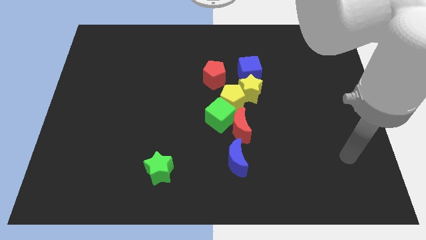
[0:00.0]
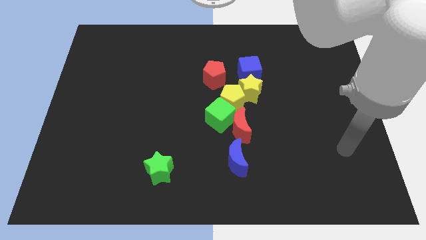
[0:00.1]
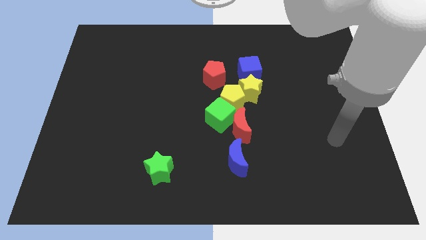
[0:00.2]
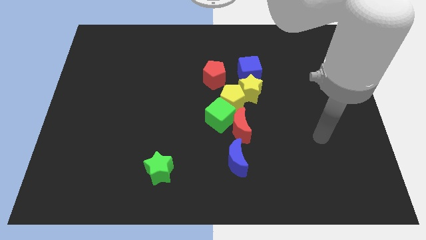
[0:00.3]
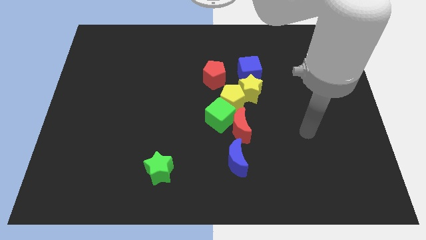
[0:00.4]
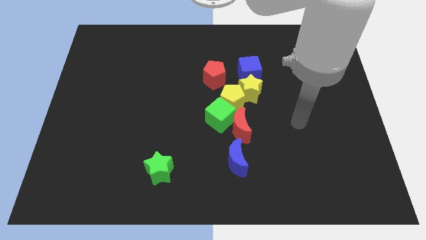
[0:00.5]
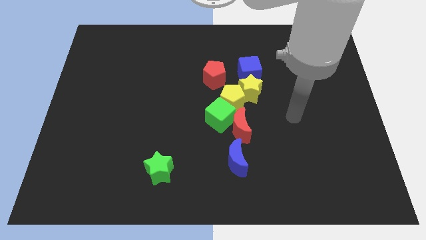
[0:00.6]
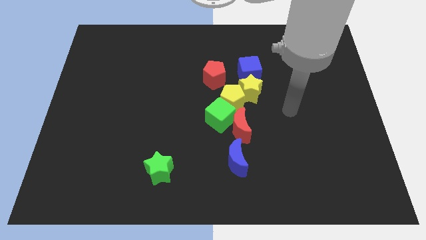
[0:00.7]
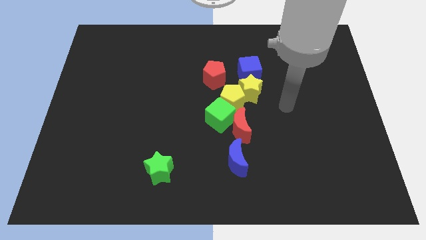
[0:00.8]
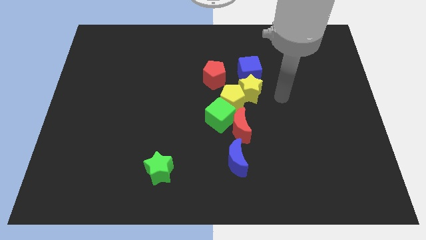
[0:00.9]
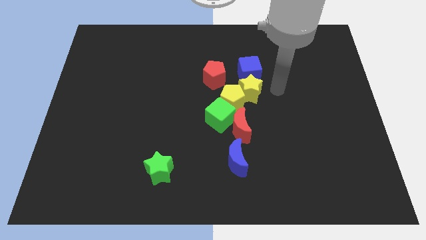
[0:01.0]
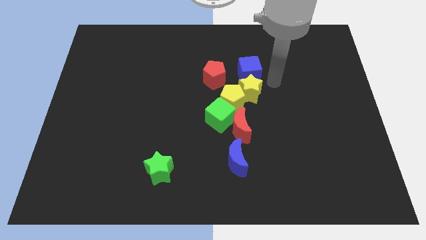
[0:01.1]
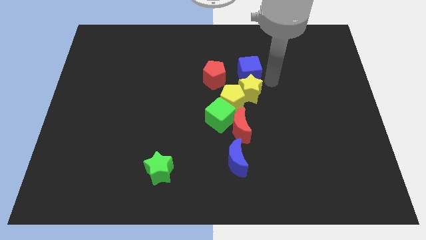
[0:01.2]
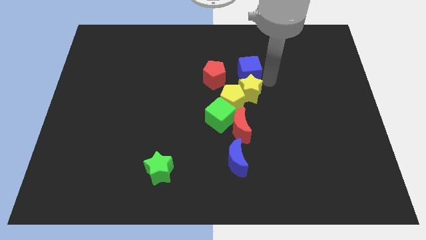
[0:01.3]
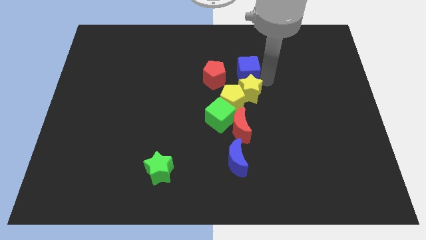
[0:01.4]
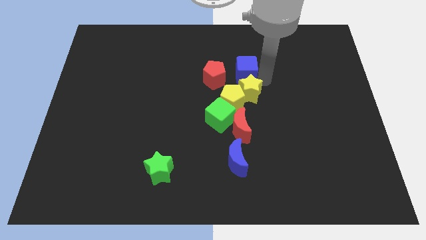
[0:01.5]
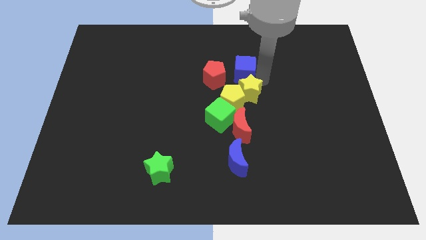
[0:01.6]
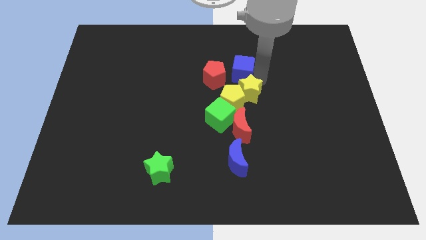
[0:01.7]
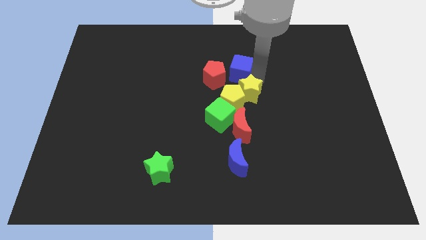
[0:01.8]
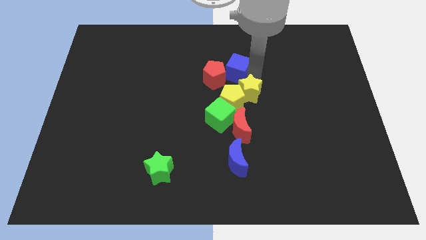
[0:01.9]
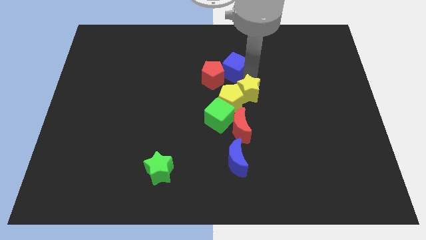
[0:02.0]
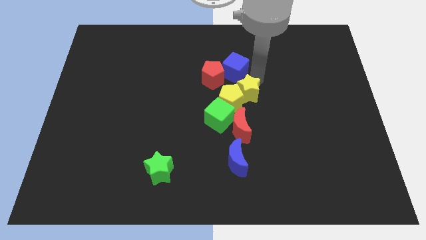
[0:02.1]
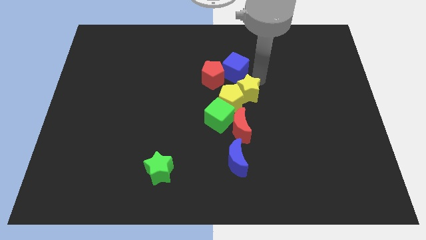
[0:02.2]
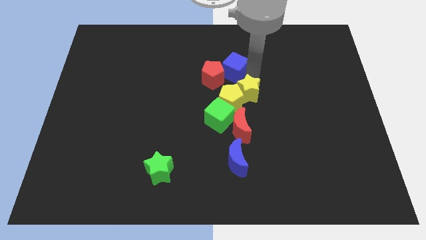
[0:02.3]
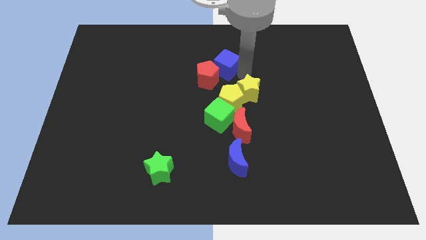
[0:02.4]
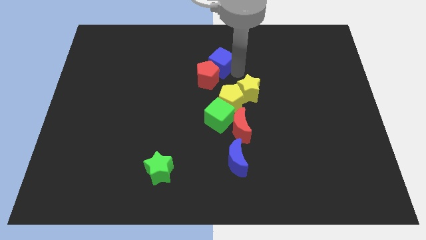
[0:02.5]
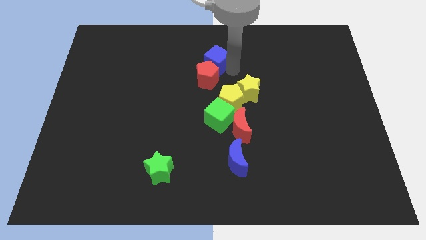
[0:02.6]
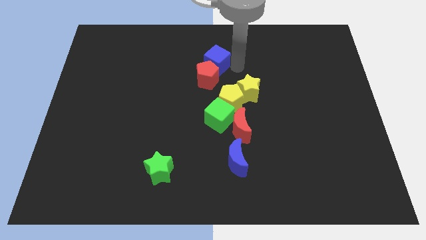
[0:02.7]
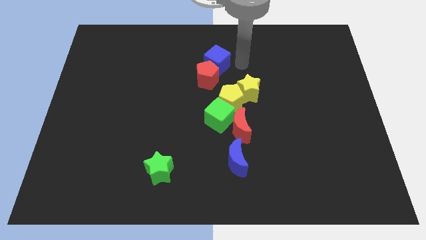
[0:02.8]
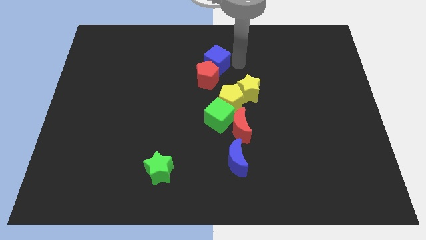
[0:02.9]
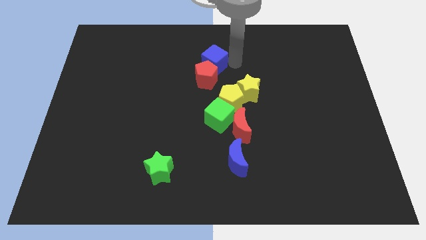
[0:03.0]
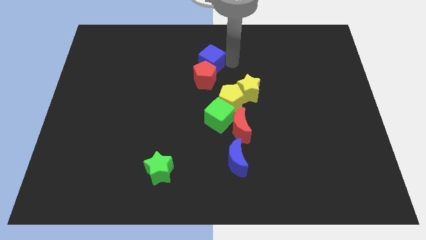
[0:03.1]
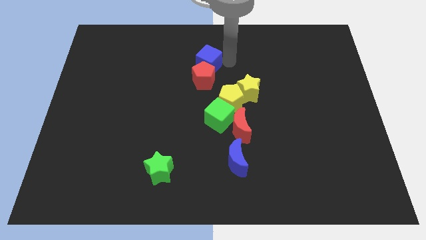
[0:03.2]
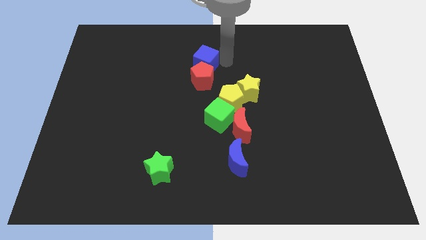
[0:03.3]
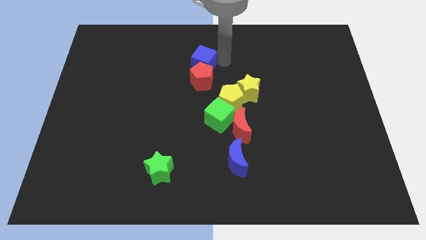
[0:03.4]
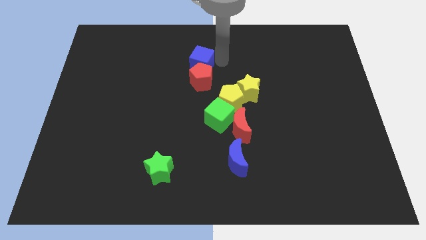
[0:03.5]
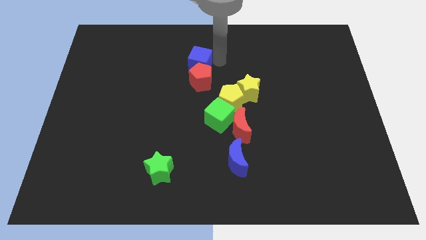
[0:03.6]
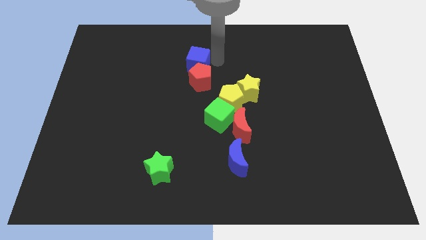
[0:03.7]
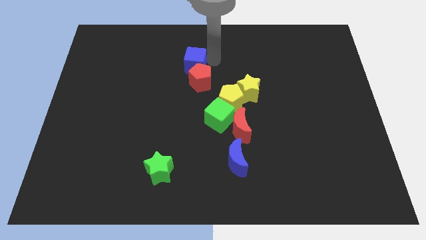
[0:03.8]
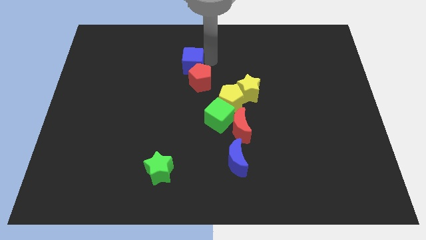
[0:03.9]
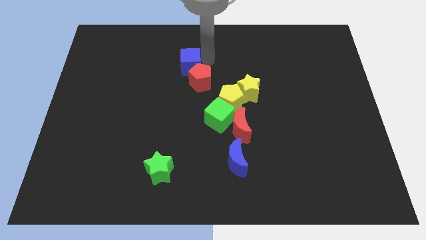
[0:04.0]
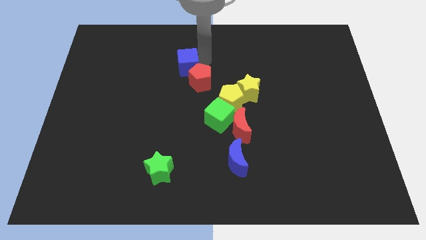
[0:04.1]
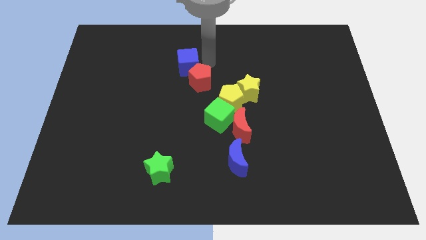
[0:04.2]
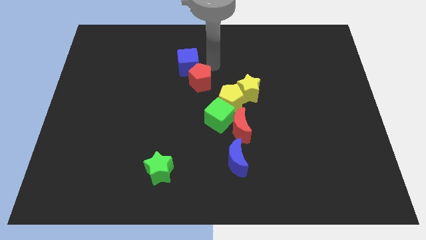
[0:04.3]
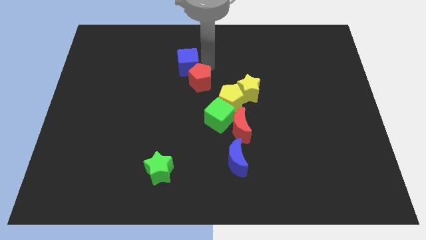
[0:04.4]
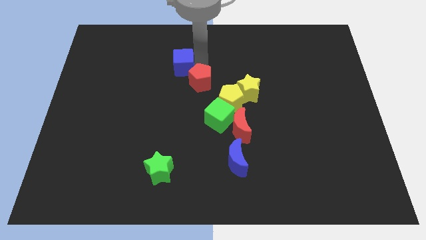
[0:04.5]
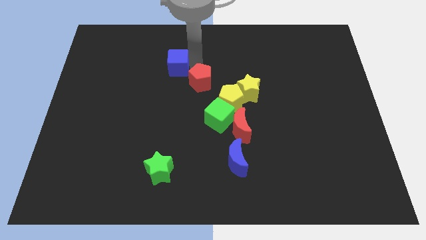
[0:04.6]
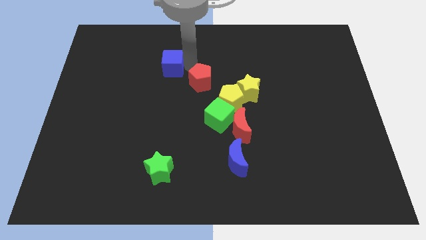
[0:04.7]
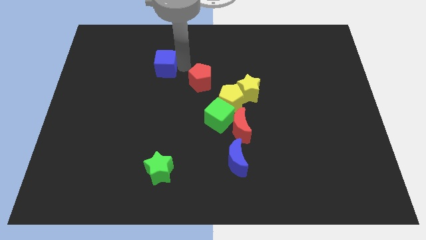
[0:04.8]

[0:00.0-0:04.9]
move the blue cube left

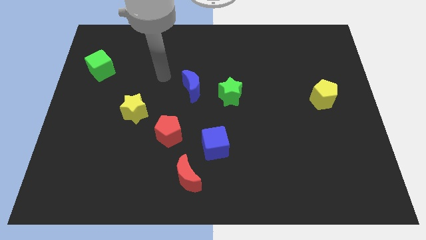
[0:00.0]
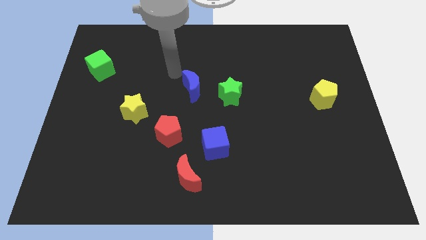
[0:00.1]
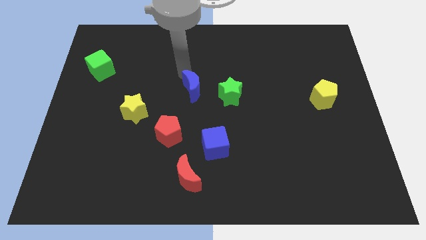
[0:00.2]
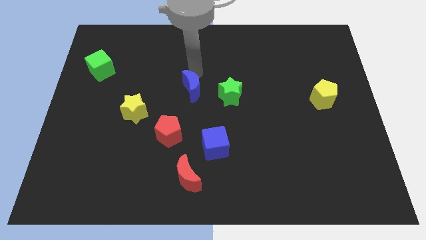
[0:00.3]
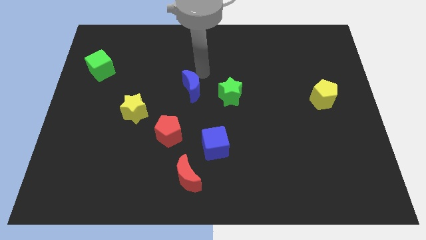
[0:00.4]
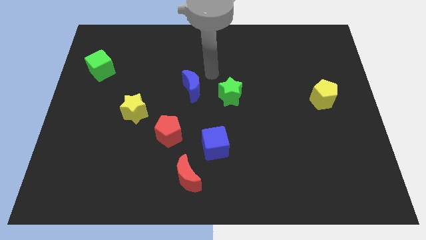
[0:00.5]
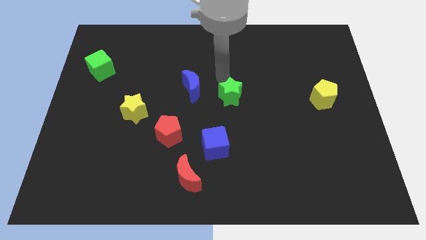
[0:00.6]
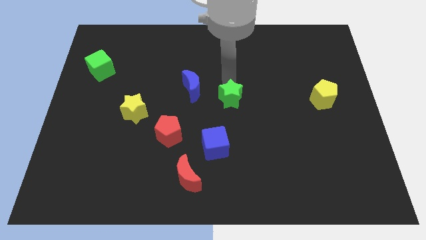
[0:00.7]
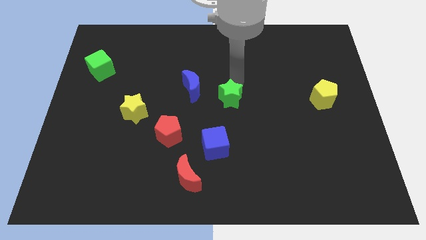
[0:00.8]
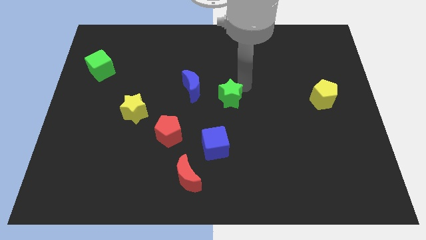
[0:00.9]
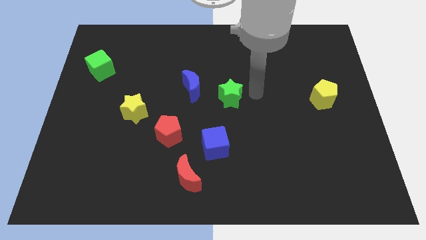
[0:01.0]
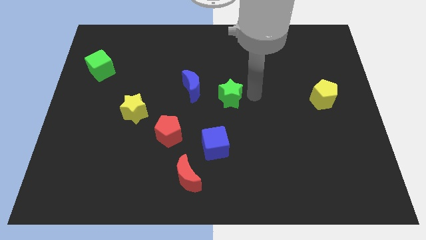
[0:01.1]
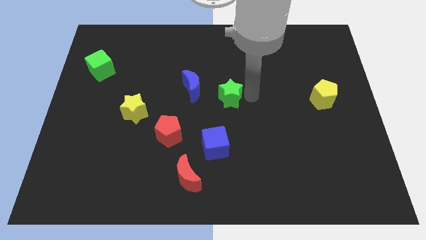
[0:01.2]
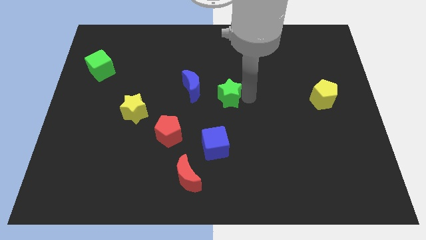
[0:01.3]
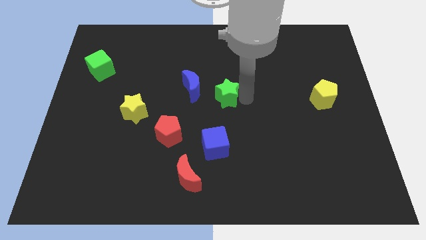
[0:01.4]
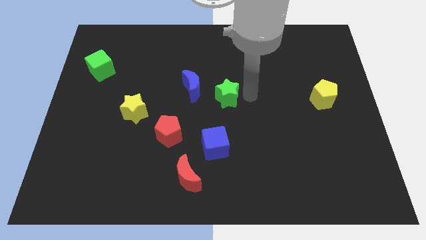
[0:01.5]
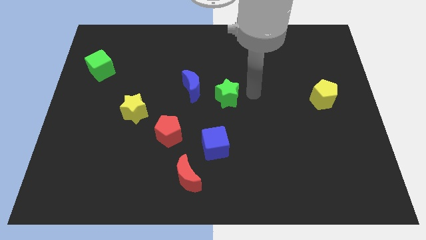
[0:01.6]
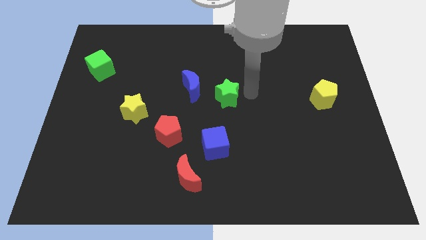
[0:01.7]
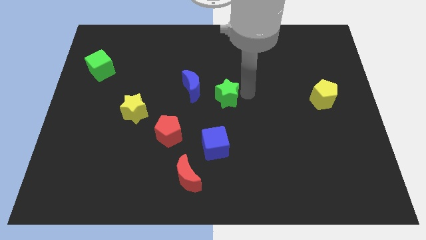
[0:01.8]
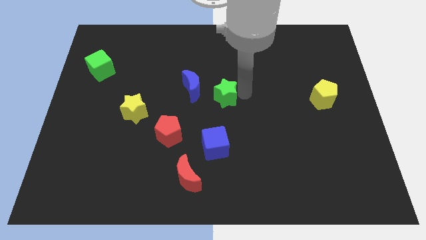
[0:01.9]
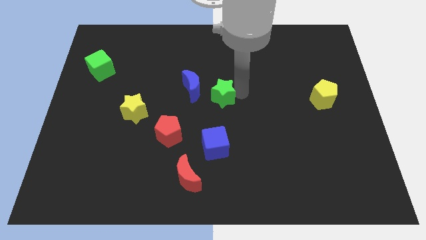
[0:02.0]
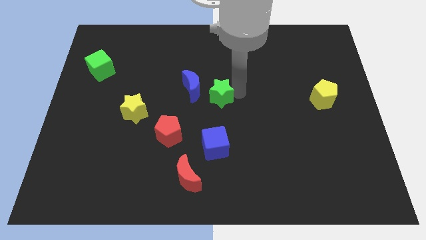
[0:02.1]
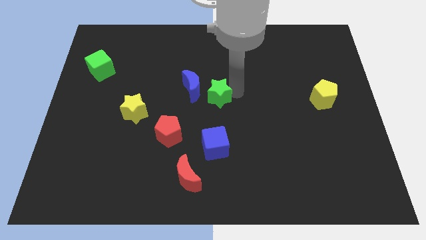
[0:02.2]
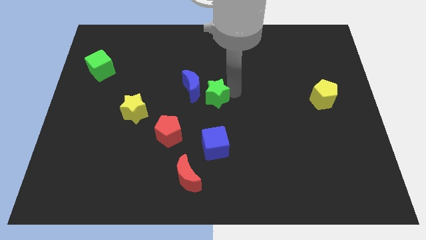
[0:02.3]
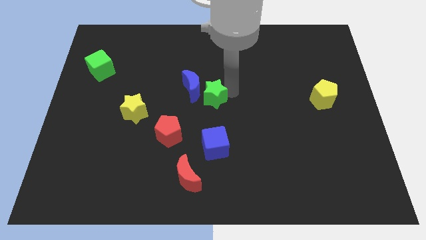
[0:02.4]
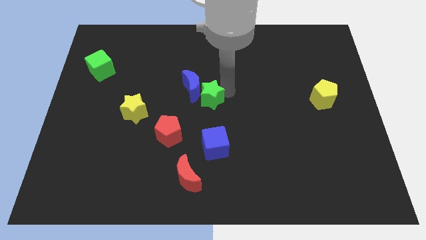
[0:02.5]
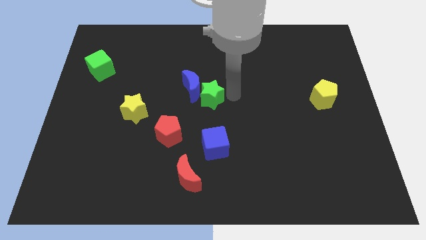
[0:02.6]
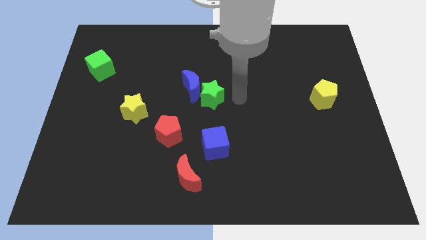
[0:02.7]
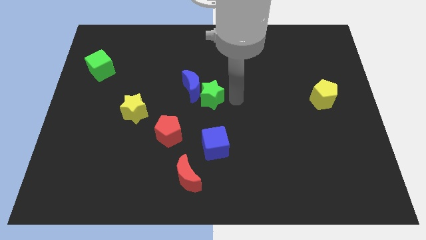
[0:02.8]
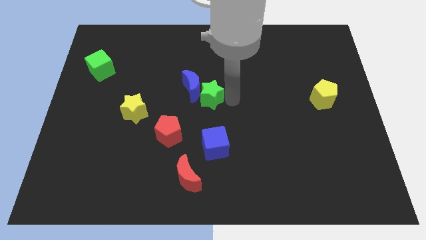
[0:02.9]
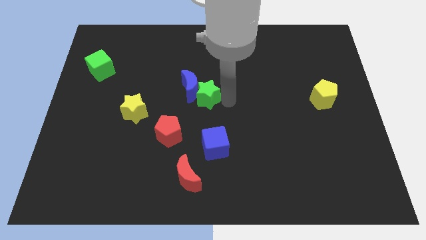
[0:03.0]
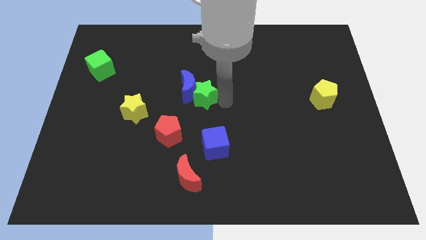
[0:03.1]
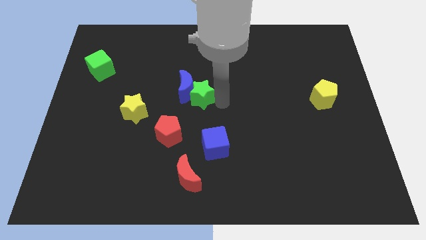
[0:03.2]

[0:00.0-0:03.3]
slightly slide the green star to the left

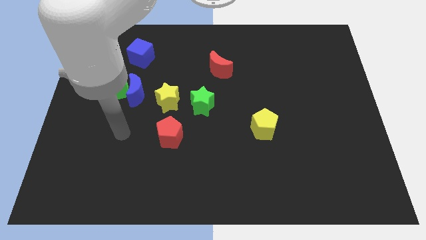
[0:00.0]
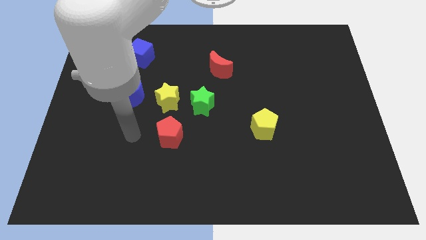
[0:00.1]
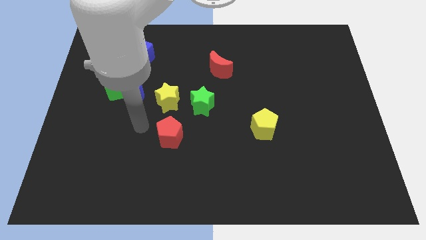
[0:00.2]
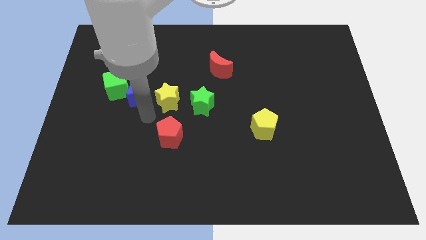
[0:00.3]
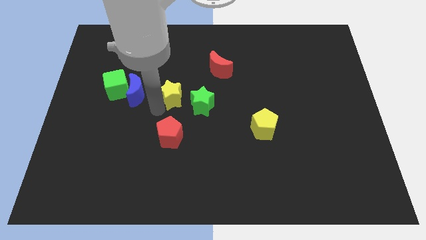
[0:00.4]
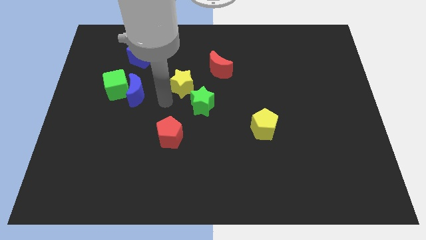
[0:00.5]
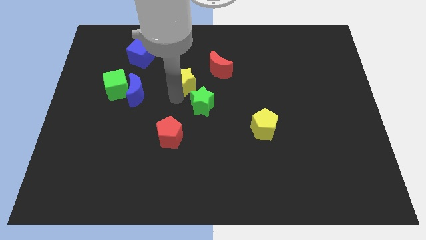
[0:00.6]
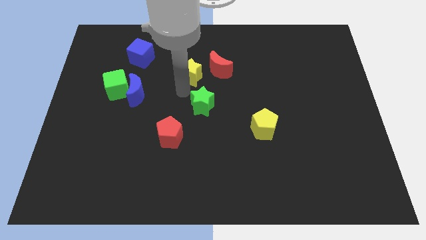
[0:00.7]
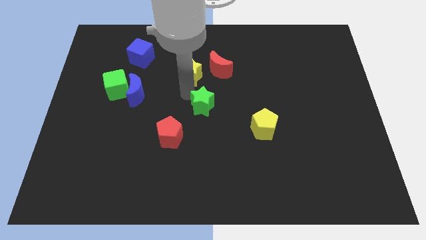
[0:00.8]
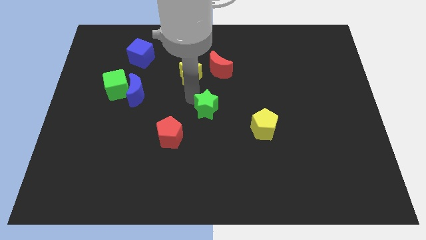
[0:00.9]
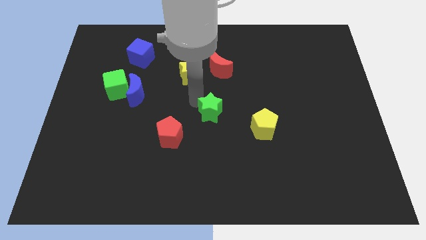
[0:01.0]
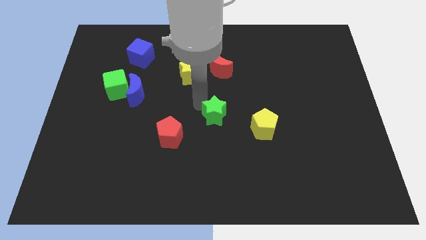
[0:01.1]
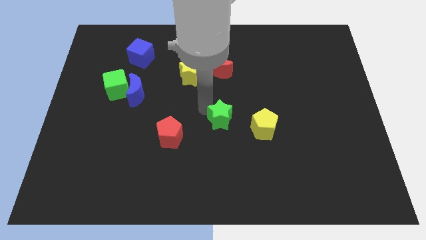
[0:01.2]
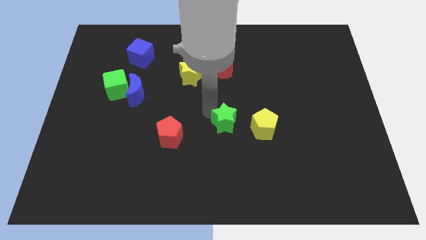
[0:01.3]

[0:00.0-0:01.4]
move the green star diagonally down and to the right slightly
